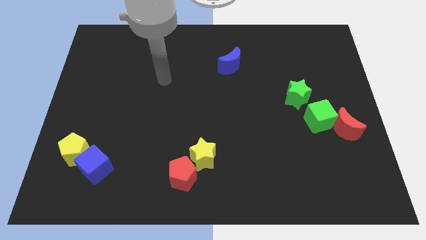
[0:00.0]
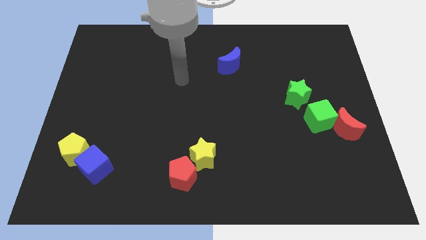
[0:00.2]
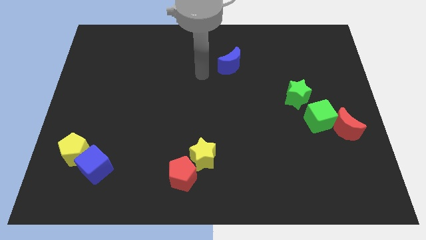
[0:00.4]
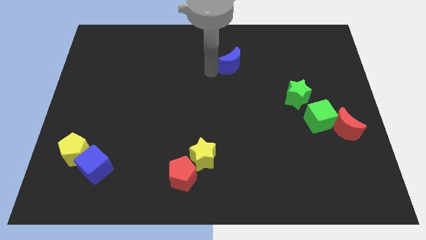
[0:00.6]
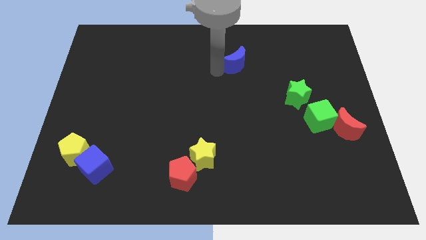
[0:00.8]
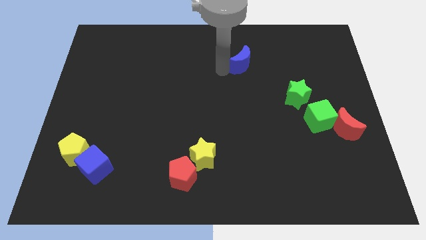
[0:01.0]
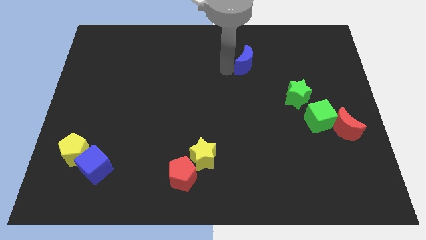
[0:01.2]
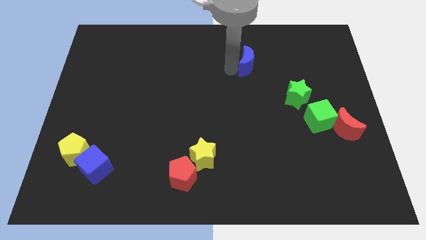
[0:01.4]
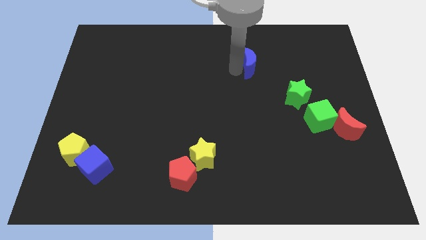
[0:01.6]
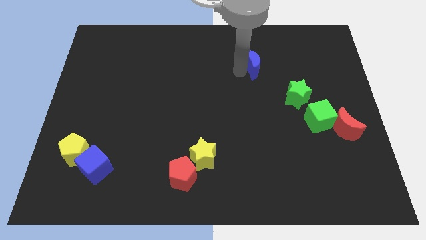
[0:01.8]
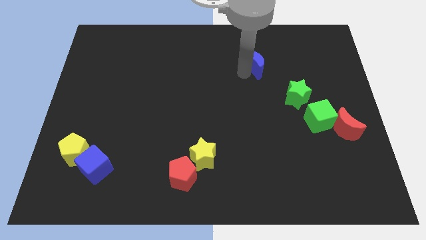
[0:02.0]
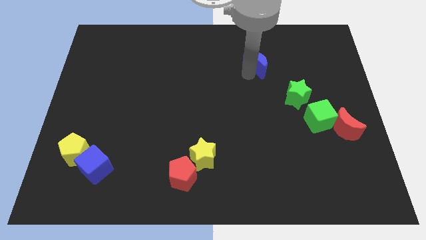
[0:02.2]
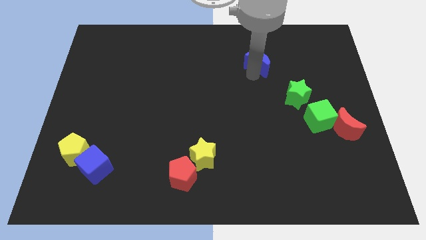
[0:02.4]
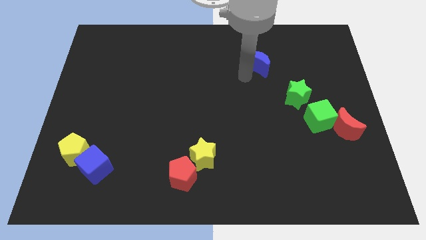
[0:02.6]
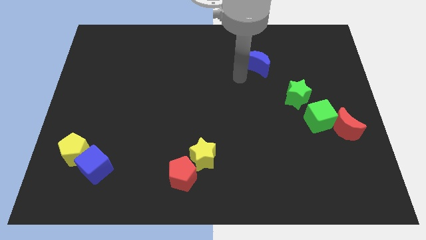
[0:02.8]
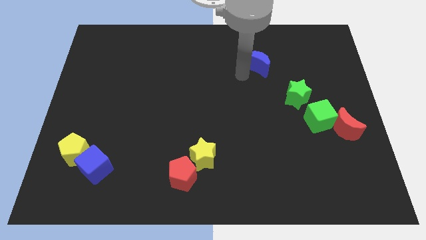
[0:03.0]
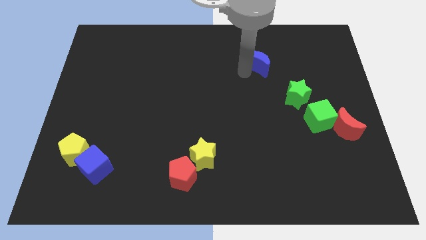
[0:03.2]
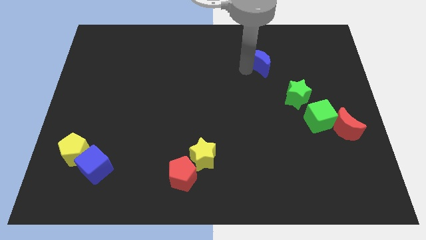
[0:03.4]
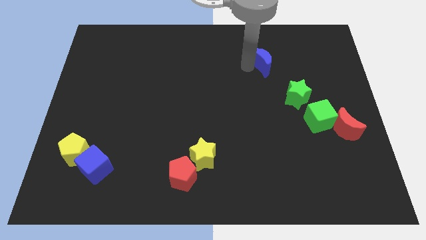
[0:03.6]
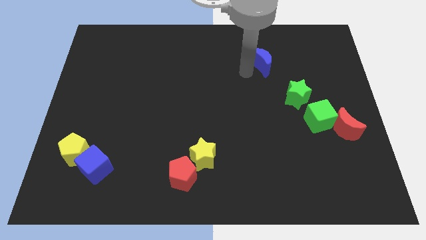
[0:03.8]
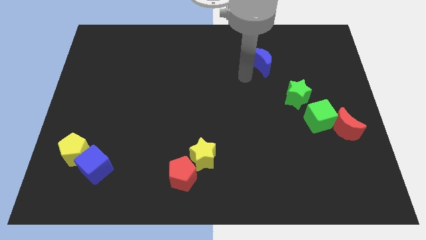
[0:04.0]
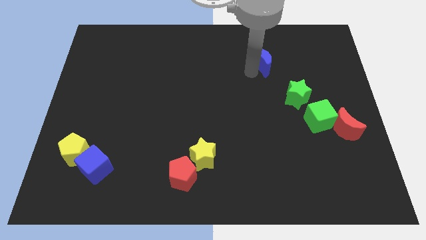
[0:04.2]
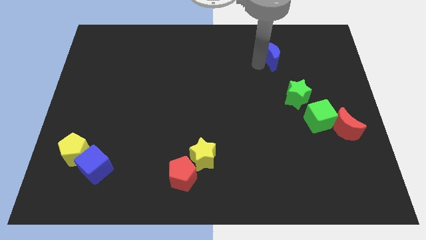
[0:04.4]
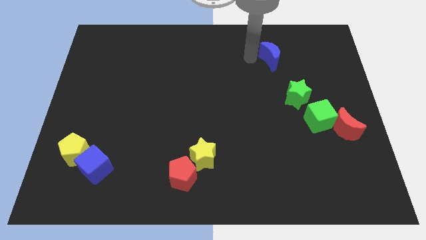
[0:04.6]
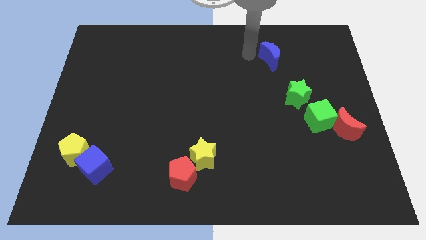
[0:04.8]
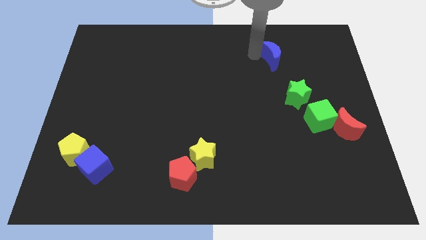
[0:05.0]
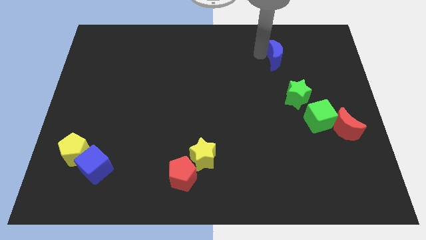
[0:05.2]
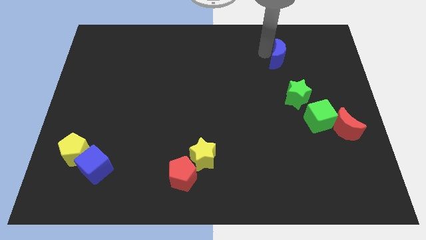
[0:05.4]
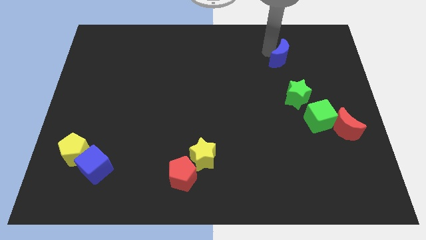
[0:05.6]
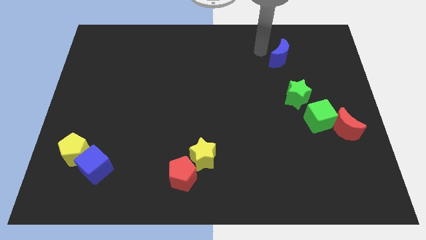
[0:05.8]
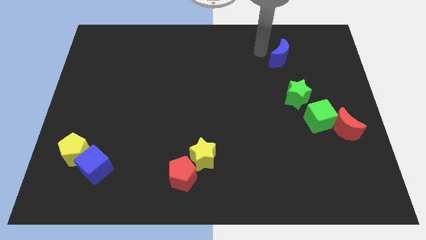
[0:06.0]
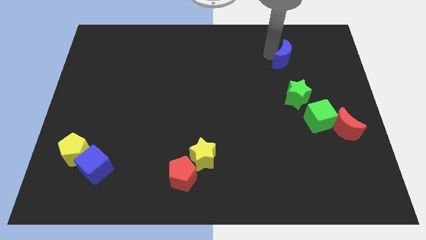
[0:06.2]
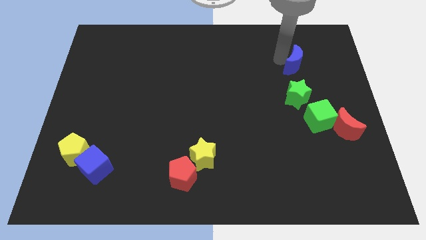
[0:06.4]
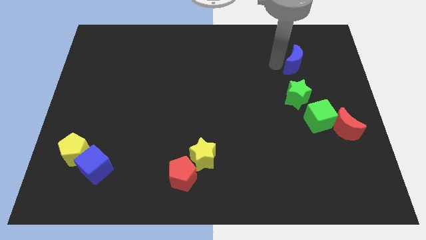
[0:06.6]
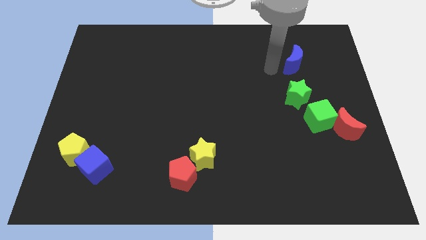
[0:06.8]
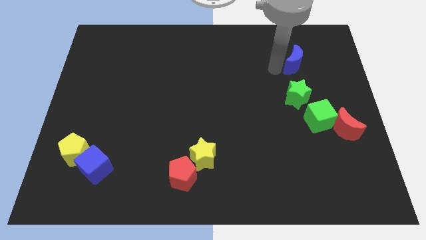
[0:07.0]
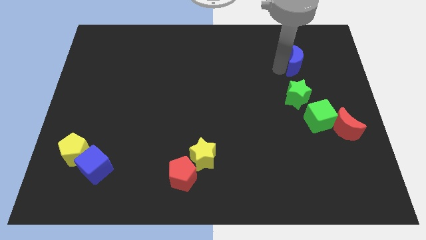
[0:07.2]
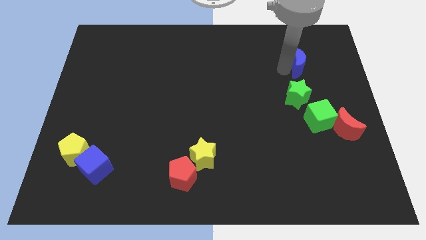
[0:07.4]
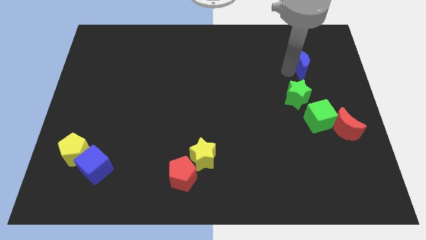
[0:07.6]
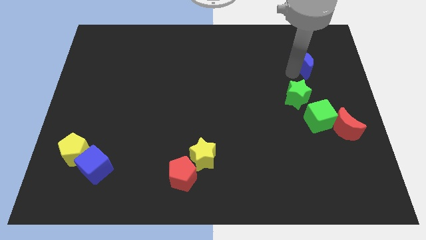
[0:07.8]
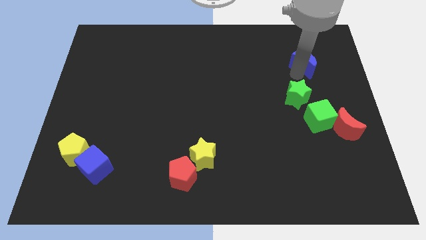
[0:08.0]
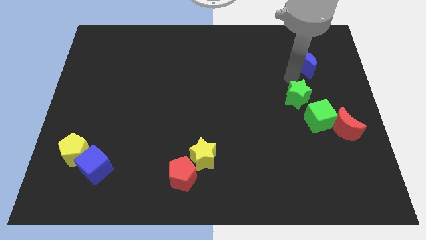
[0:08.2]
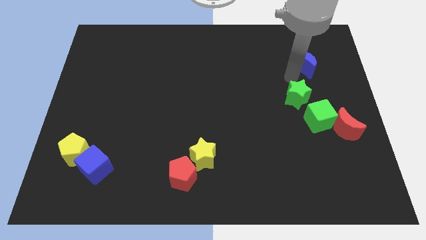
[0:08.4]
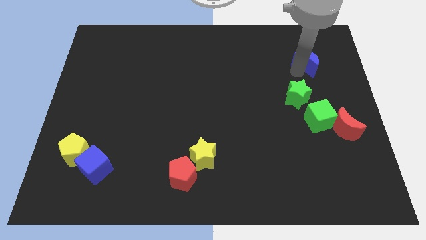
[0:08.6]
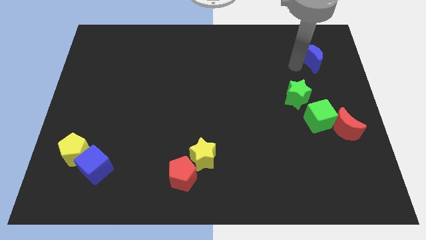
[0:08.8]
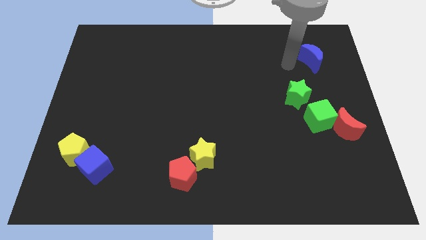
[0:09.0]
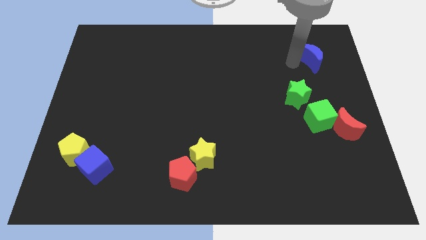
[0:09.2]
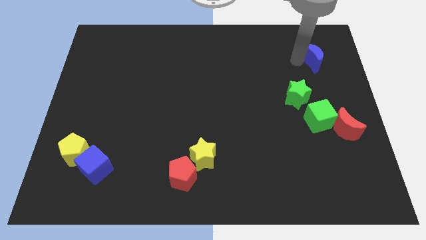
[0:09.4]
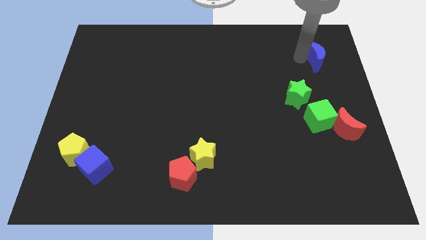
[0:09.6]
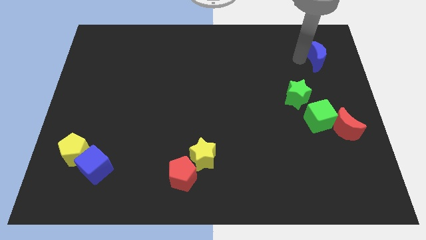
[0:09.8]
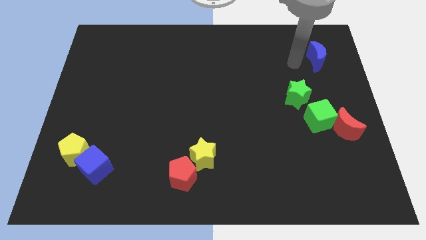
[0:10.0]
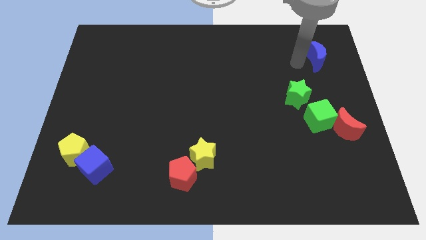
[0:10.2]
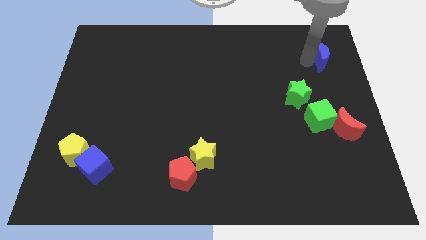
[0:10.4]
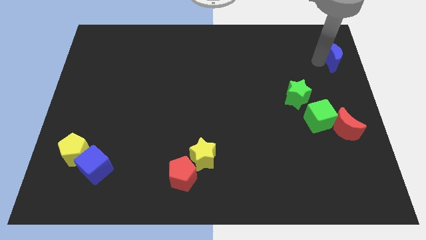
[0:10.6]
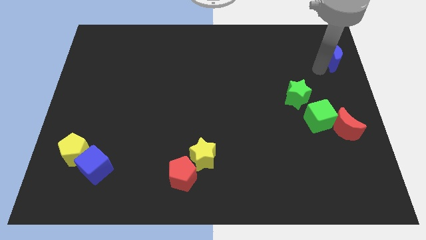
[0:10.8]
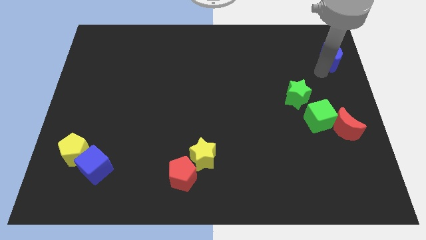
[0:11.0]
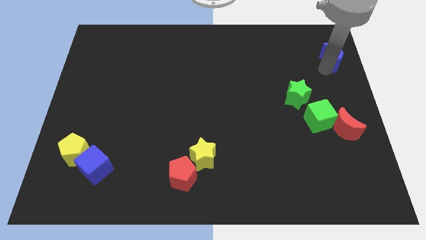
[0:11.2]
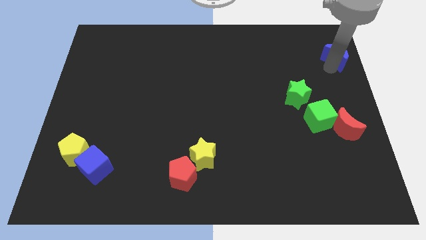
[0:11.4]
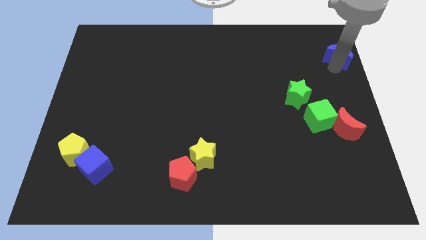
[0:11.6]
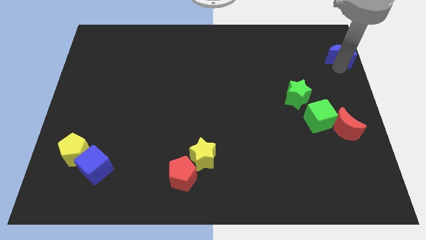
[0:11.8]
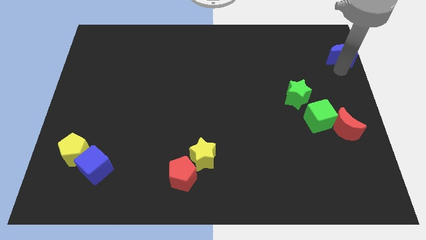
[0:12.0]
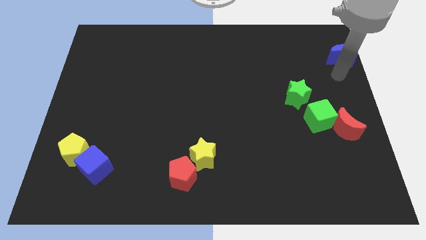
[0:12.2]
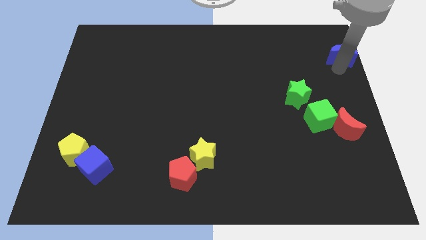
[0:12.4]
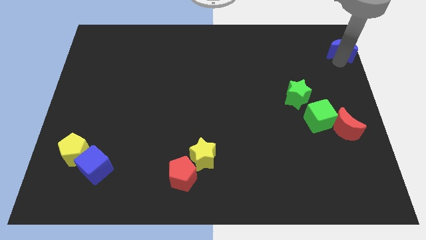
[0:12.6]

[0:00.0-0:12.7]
move the blue moon to the upper right corner

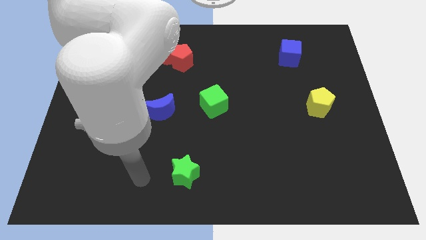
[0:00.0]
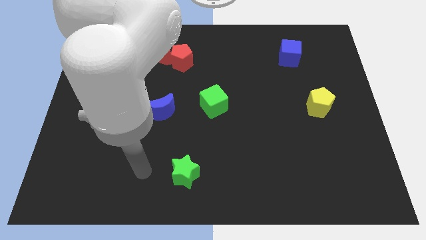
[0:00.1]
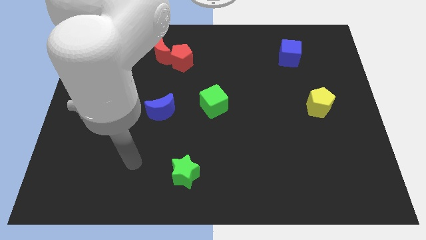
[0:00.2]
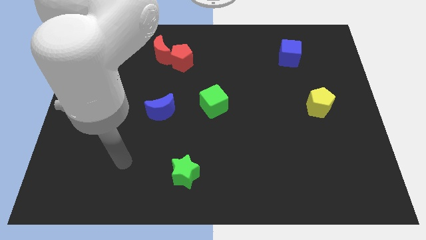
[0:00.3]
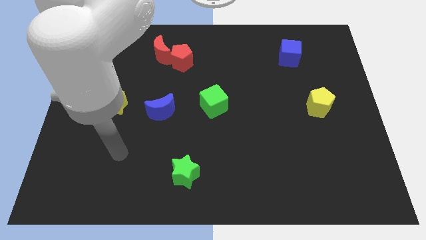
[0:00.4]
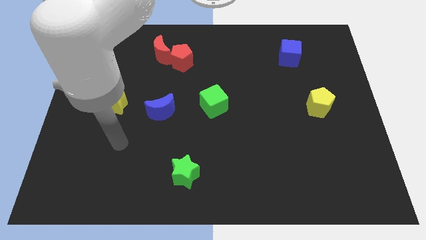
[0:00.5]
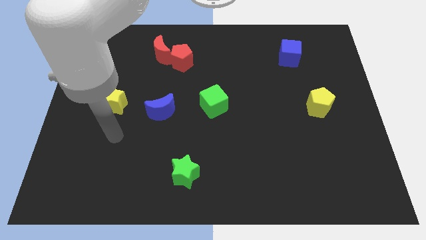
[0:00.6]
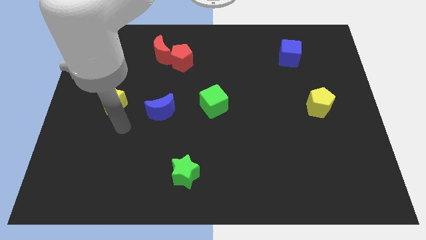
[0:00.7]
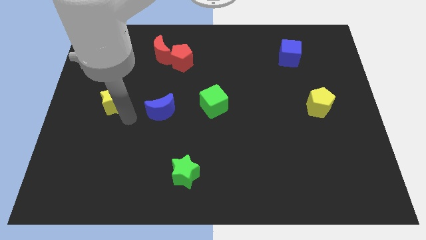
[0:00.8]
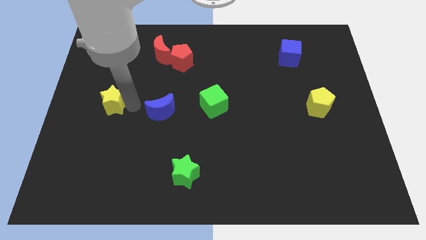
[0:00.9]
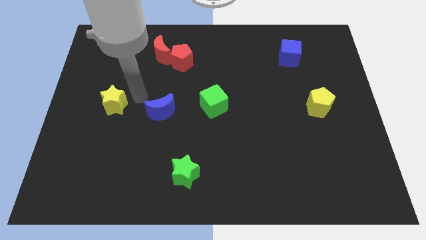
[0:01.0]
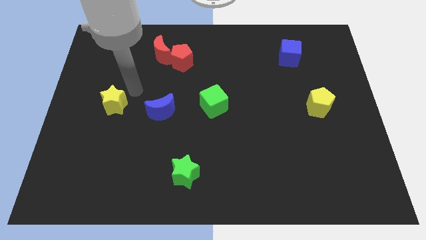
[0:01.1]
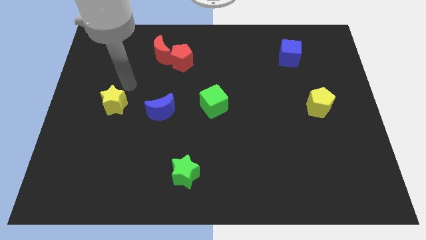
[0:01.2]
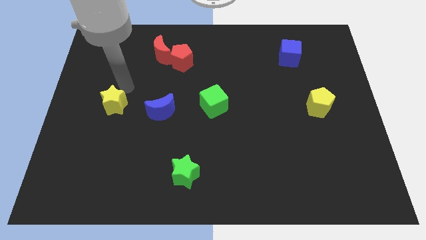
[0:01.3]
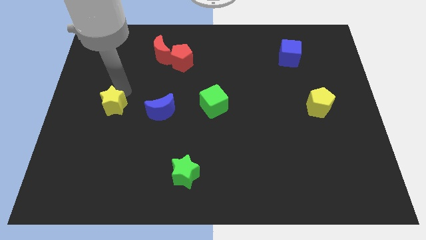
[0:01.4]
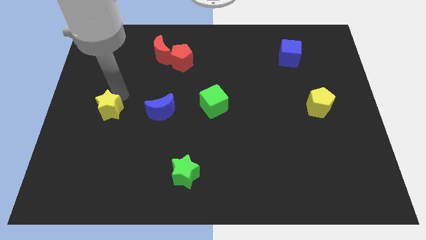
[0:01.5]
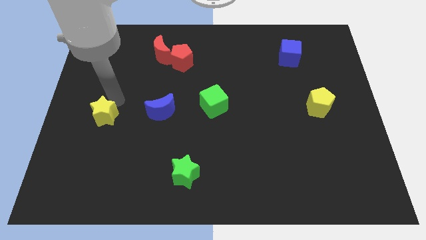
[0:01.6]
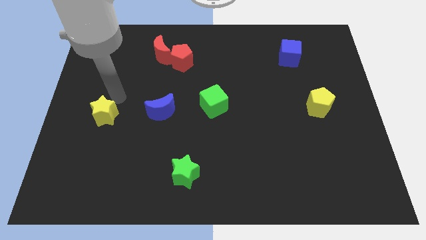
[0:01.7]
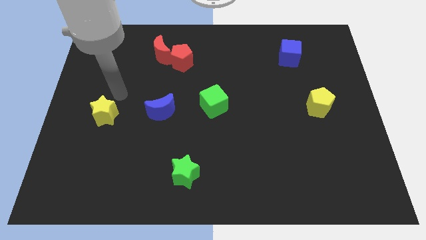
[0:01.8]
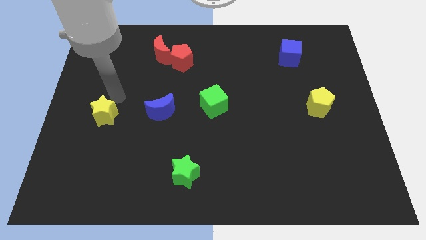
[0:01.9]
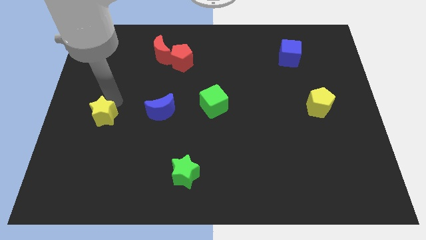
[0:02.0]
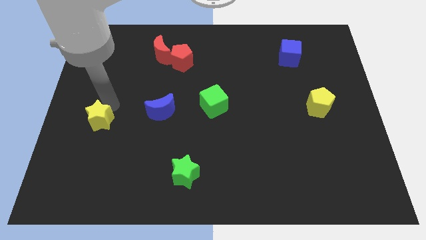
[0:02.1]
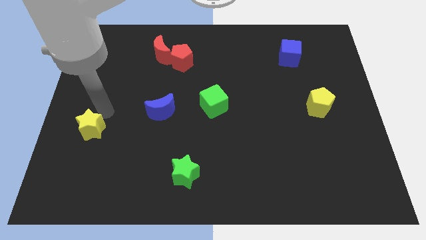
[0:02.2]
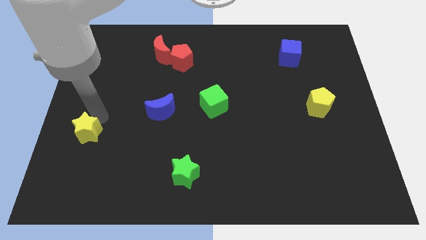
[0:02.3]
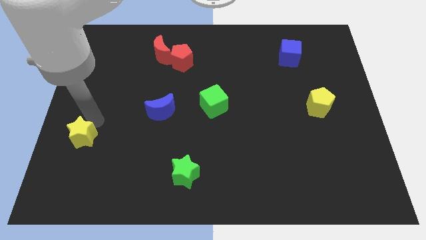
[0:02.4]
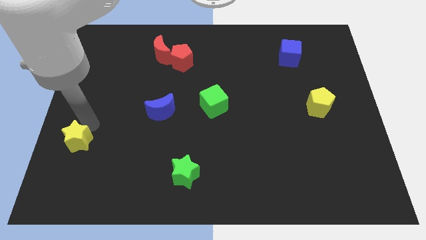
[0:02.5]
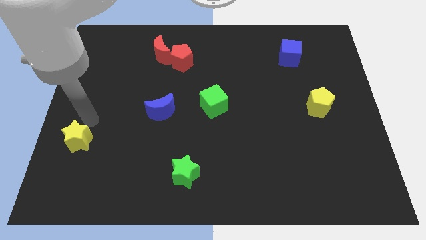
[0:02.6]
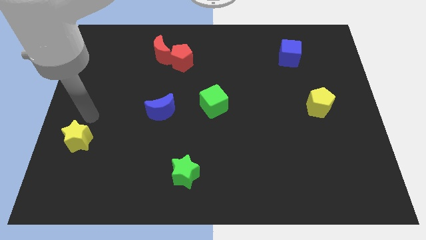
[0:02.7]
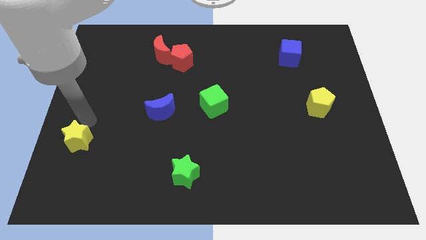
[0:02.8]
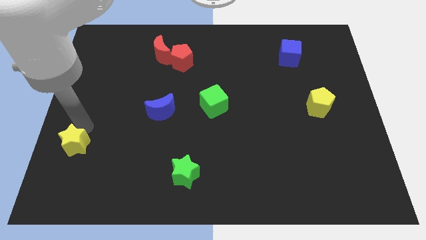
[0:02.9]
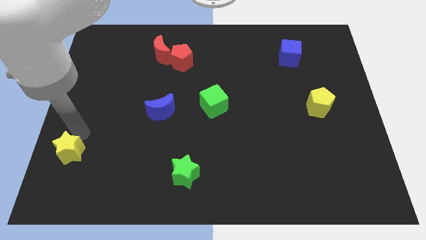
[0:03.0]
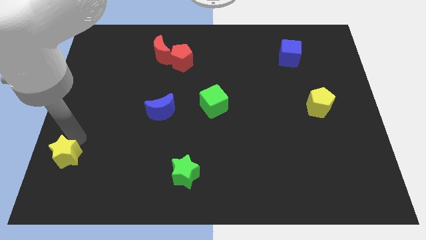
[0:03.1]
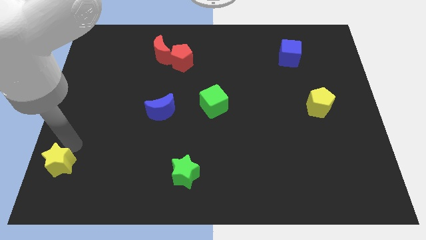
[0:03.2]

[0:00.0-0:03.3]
push the yellow star to the bottom left
